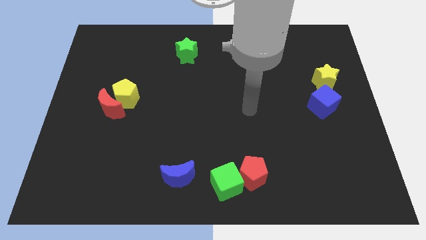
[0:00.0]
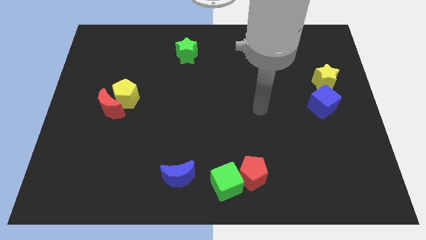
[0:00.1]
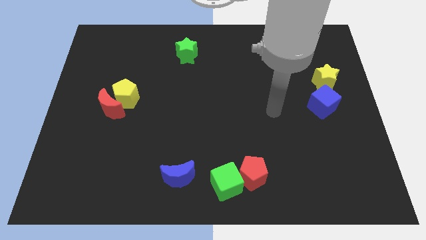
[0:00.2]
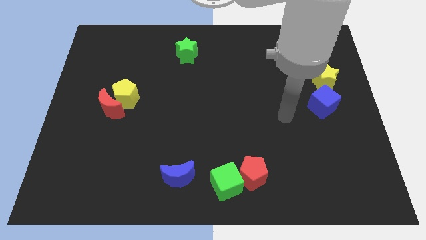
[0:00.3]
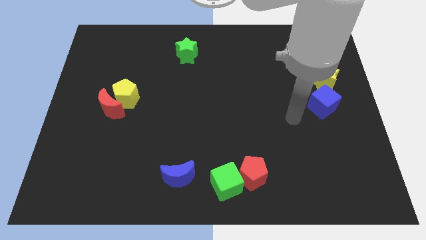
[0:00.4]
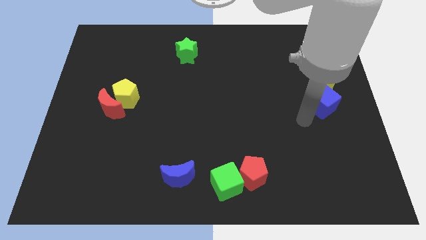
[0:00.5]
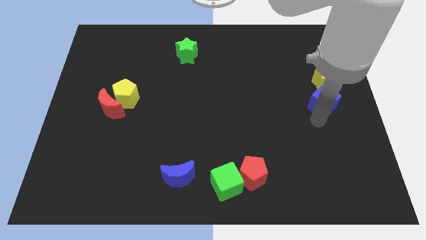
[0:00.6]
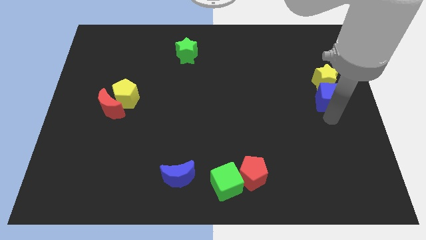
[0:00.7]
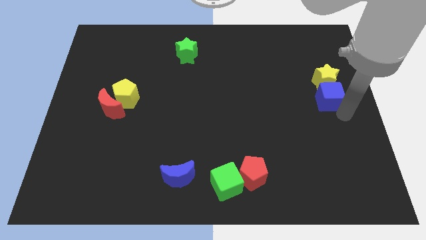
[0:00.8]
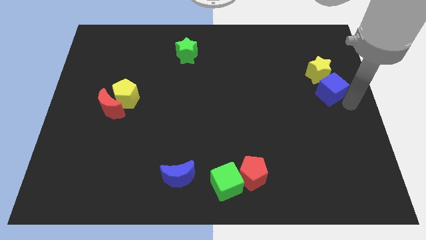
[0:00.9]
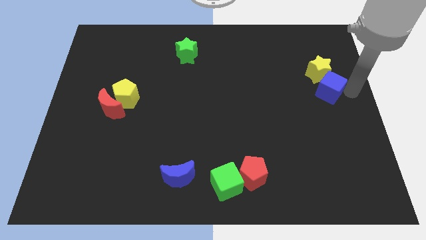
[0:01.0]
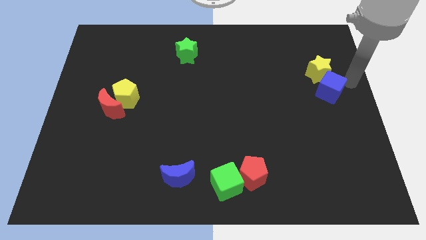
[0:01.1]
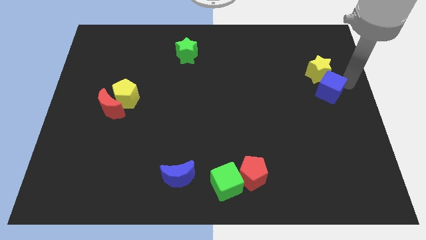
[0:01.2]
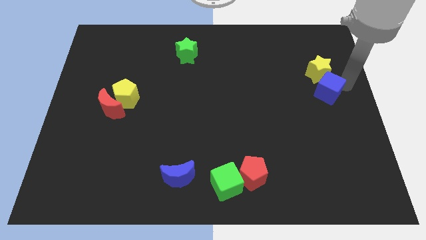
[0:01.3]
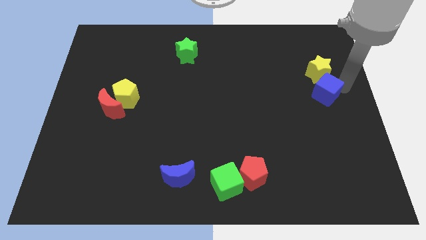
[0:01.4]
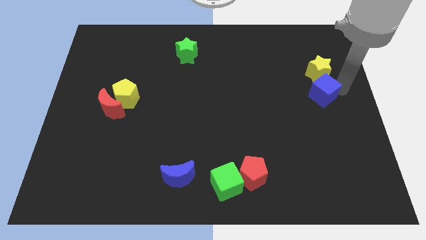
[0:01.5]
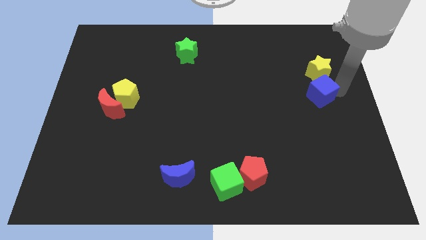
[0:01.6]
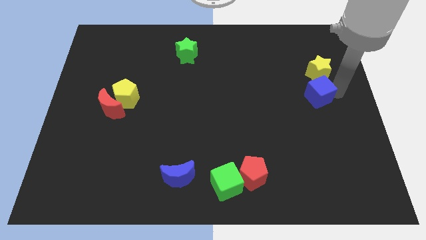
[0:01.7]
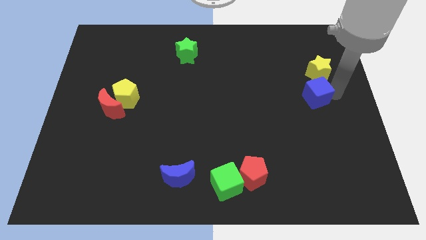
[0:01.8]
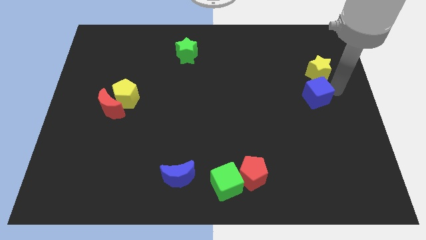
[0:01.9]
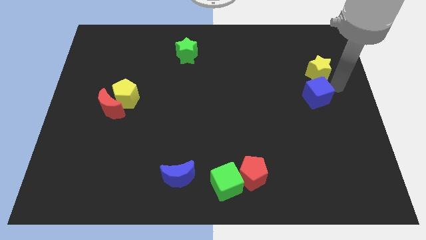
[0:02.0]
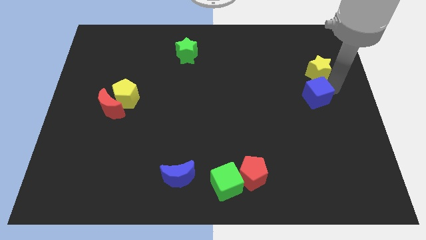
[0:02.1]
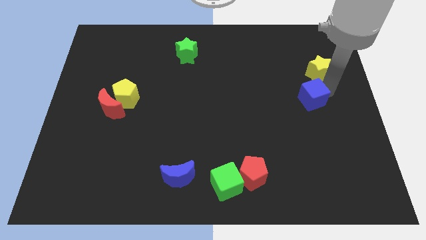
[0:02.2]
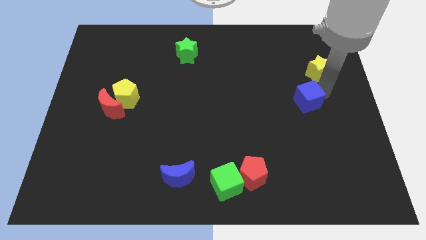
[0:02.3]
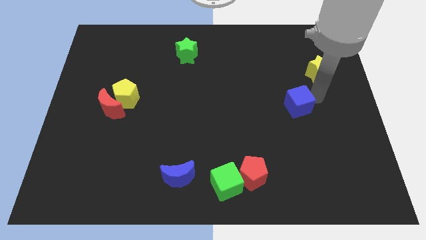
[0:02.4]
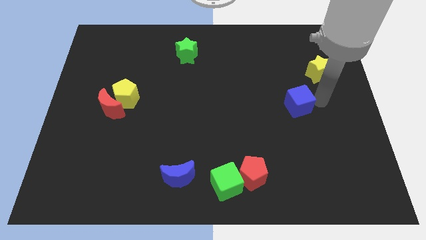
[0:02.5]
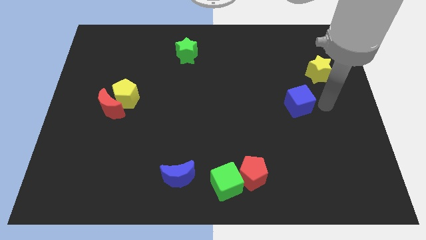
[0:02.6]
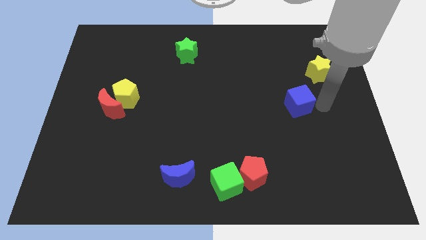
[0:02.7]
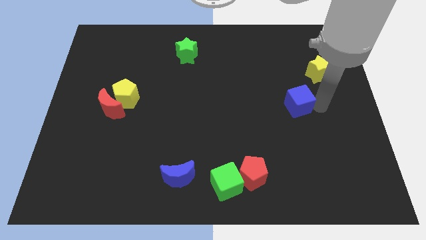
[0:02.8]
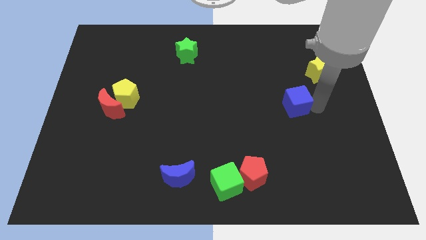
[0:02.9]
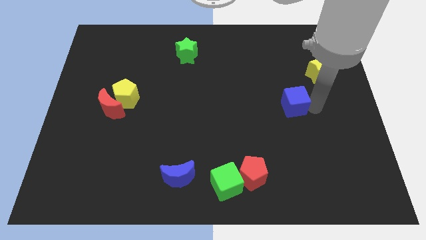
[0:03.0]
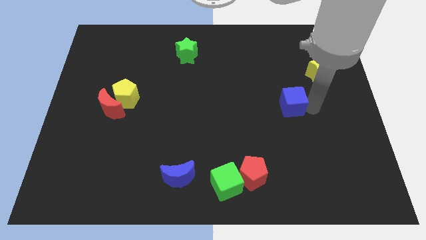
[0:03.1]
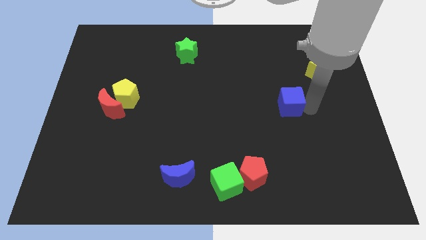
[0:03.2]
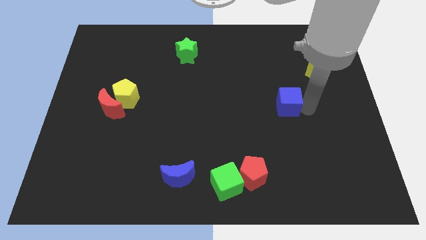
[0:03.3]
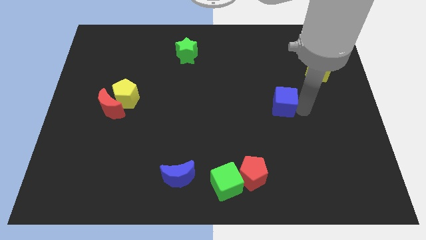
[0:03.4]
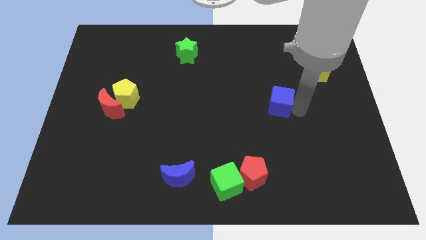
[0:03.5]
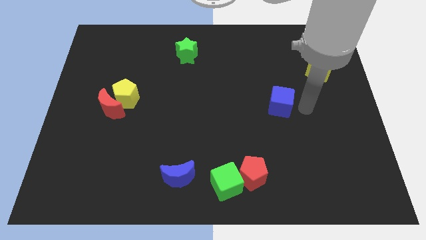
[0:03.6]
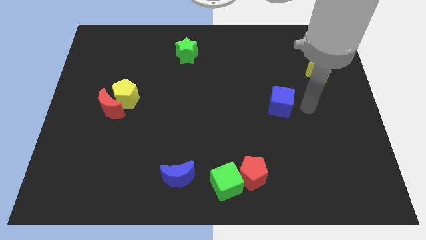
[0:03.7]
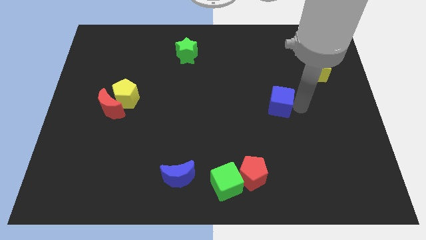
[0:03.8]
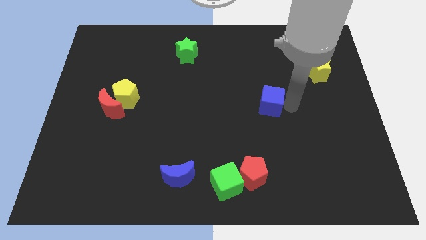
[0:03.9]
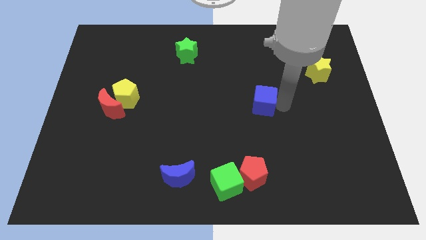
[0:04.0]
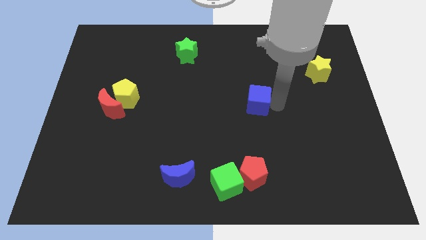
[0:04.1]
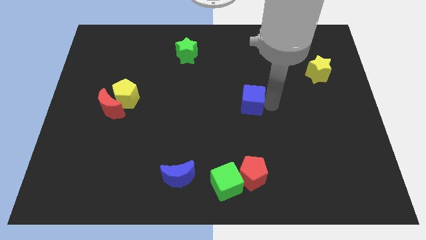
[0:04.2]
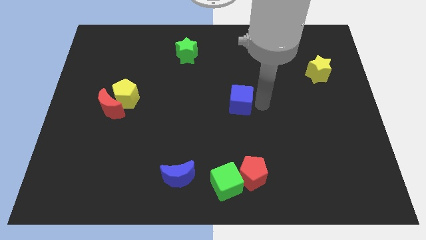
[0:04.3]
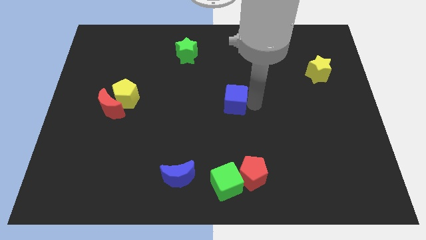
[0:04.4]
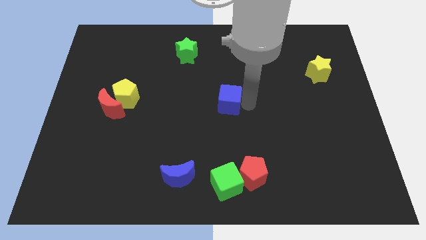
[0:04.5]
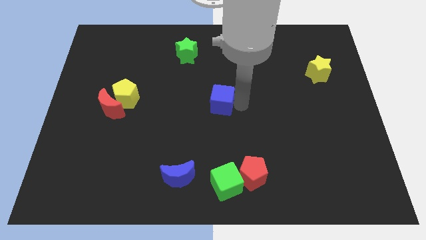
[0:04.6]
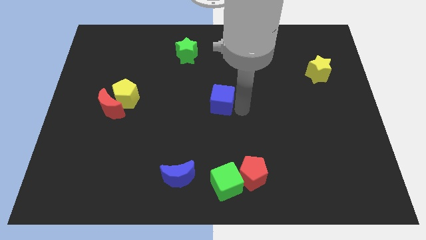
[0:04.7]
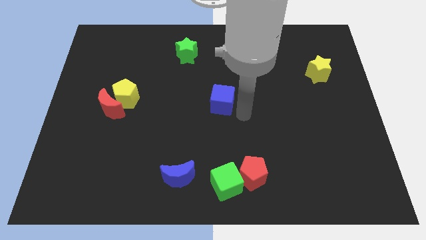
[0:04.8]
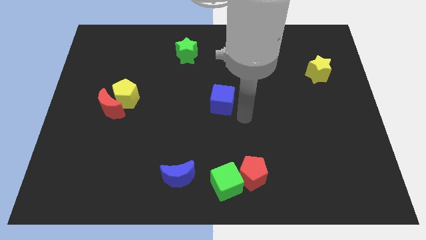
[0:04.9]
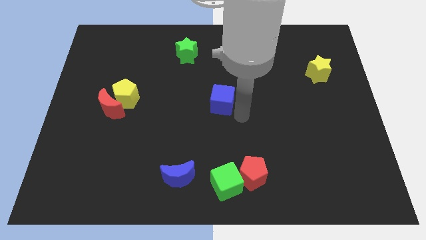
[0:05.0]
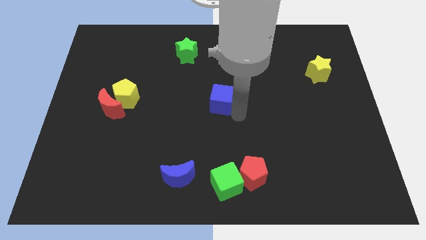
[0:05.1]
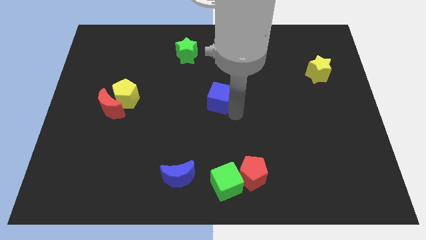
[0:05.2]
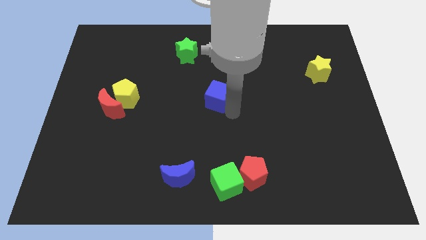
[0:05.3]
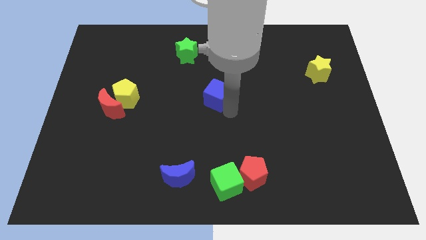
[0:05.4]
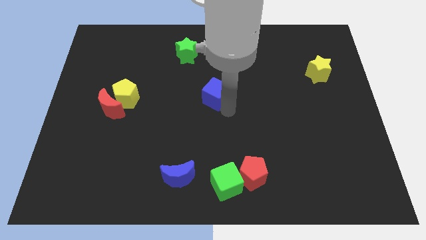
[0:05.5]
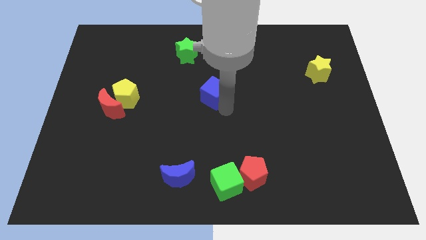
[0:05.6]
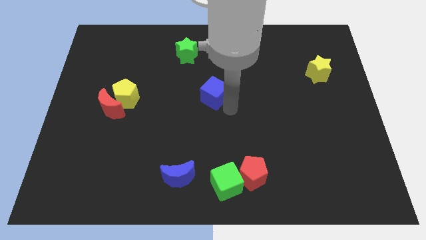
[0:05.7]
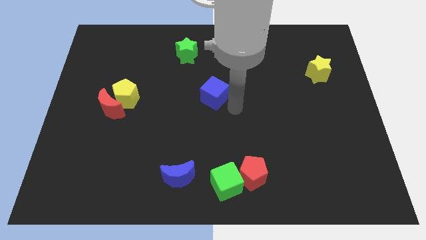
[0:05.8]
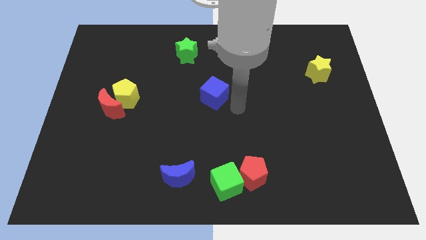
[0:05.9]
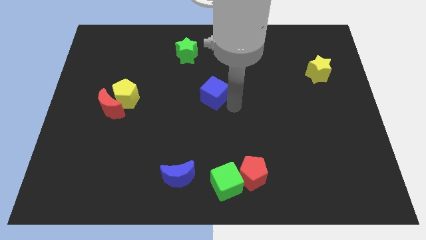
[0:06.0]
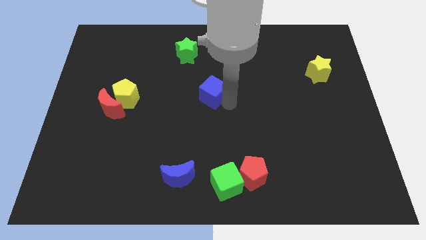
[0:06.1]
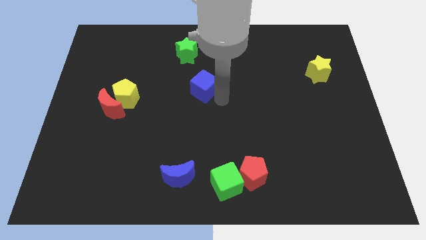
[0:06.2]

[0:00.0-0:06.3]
move the blue cube to the bottom side of the green star
